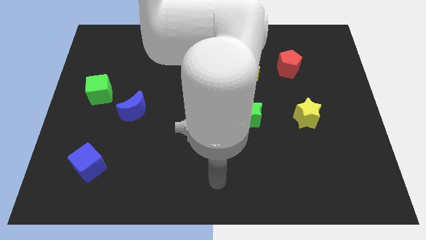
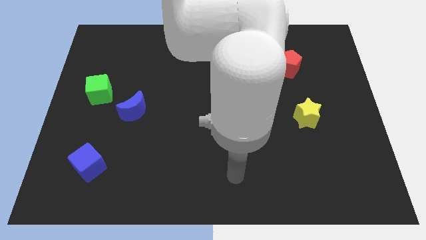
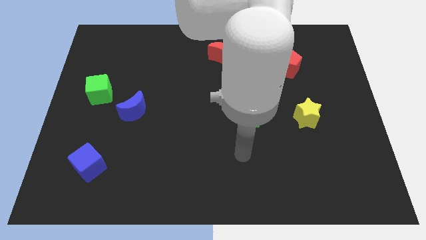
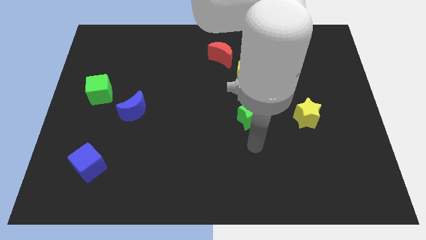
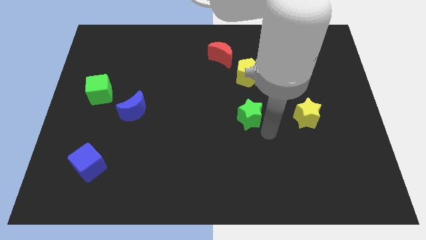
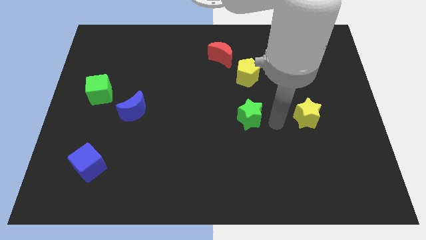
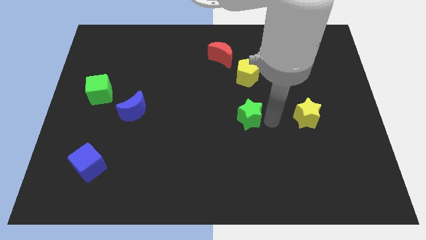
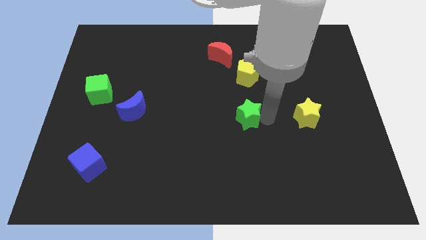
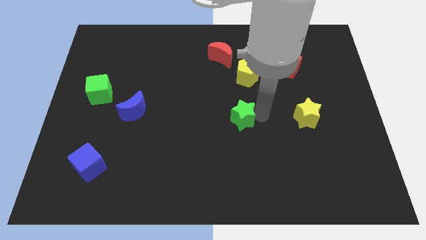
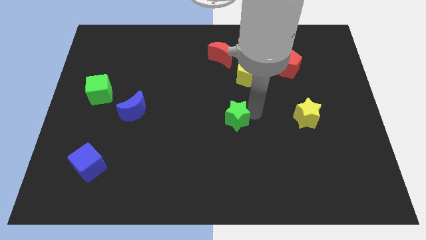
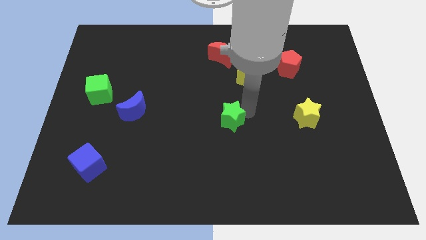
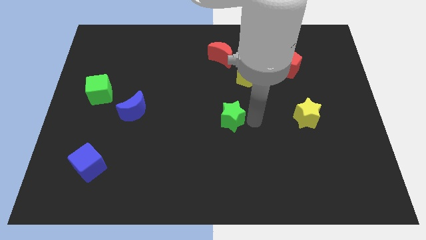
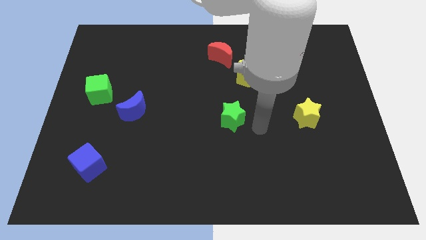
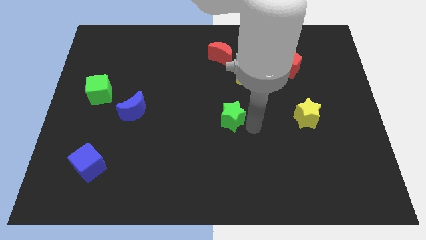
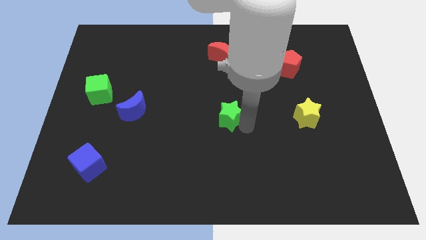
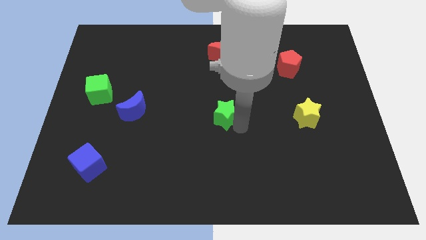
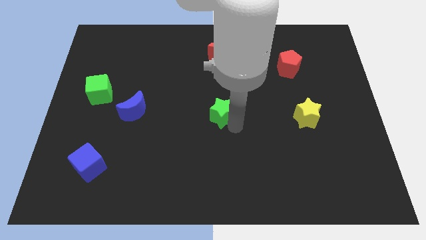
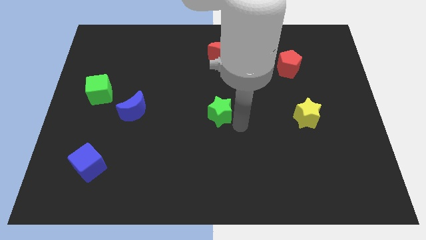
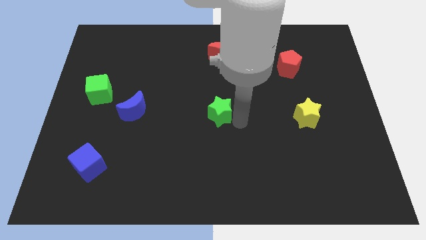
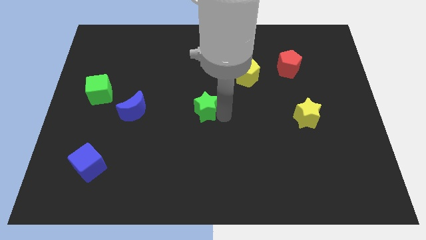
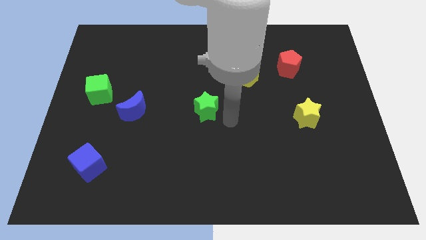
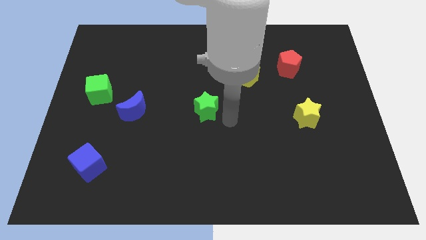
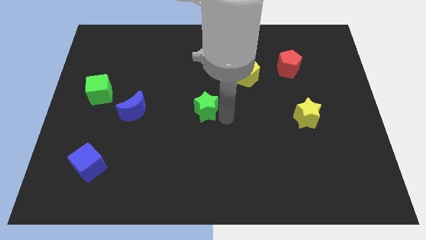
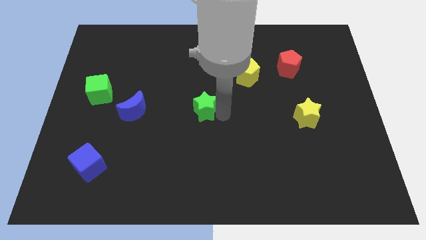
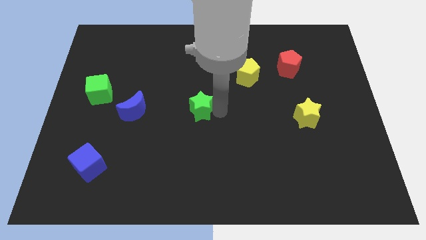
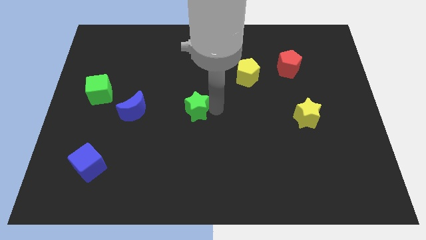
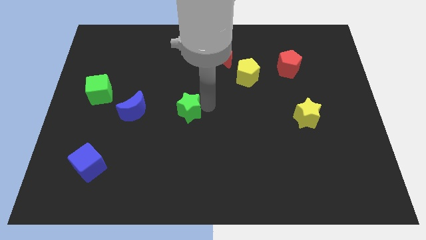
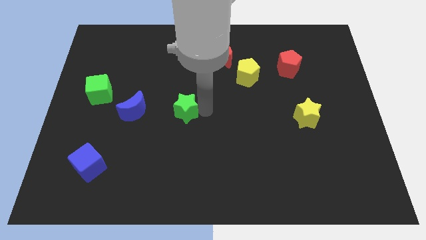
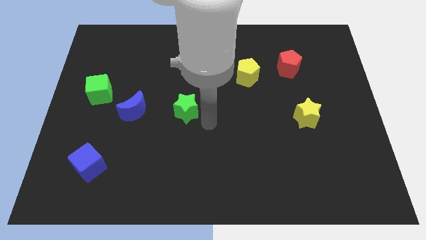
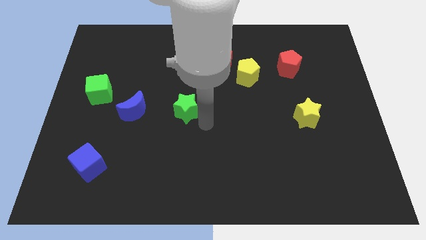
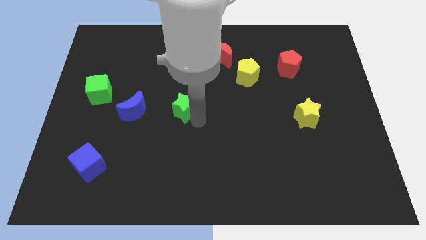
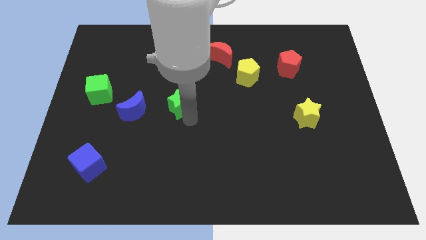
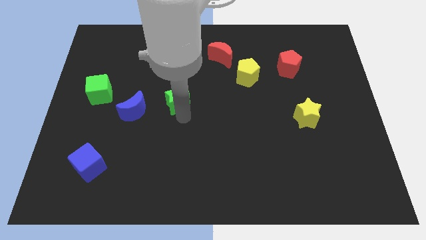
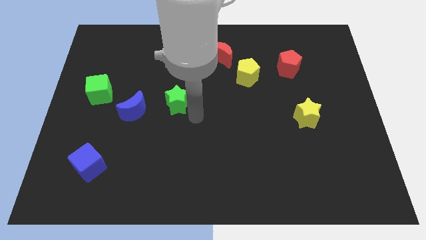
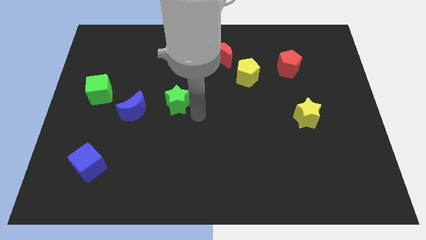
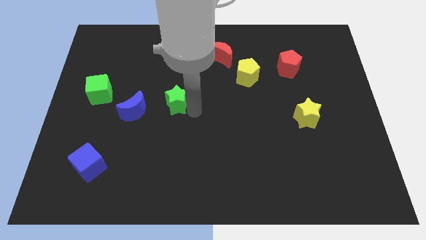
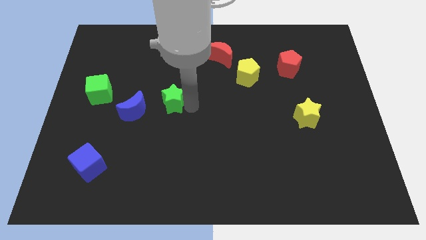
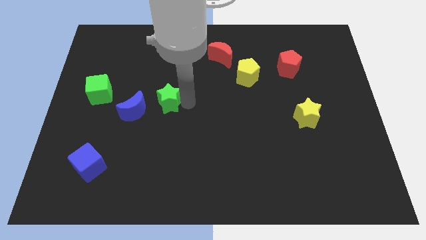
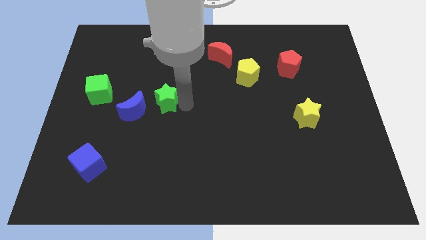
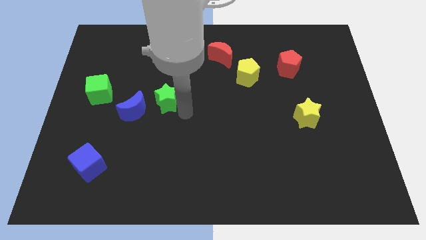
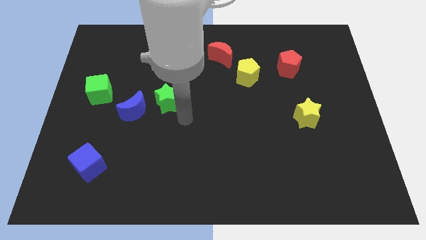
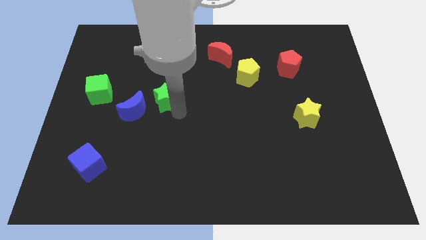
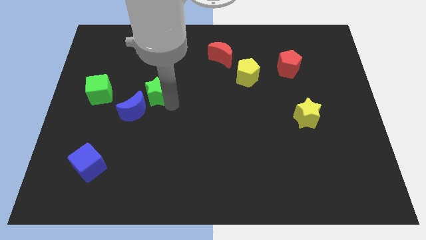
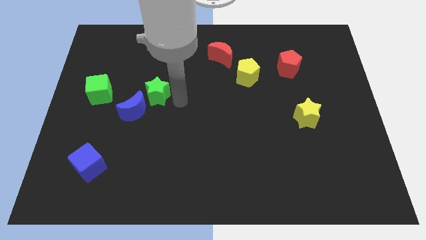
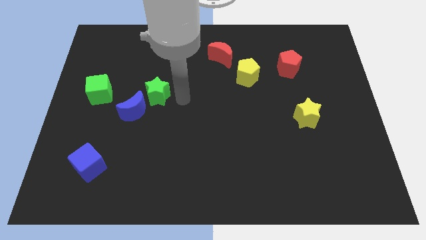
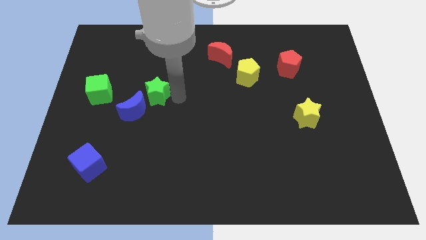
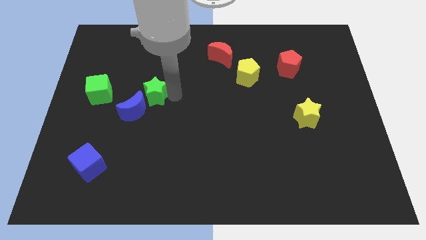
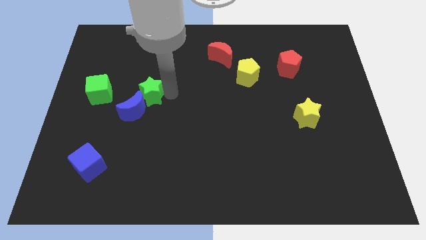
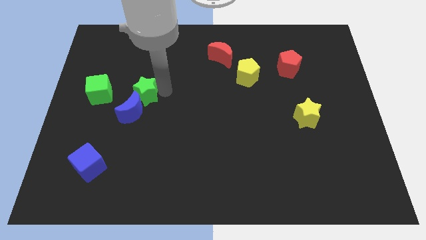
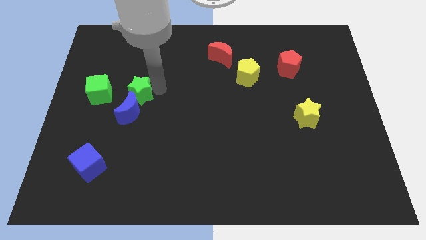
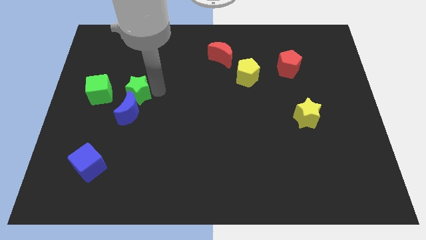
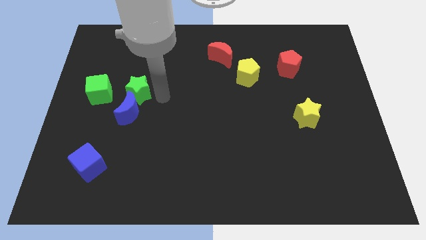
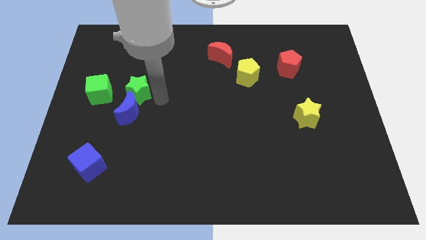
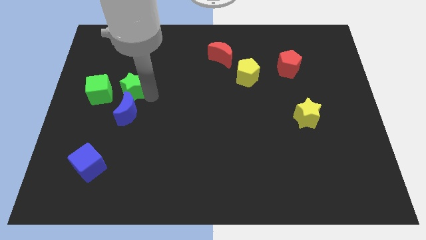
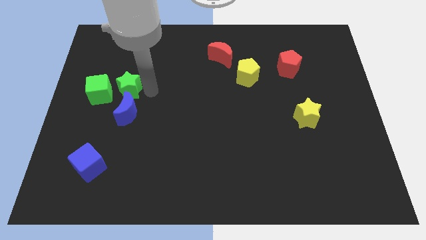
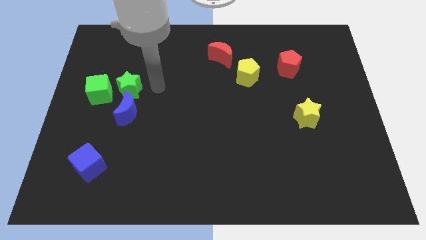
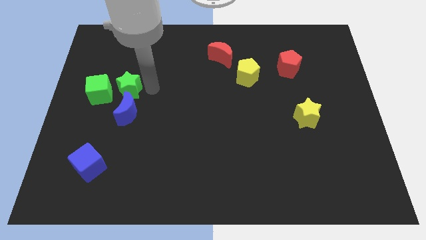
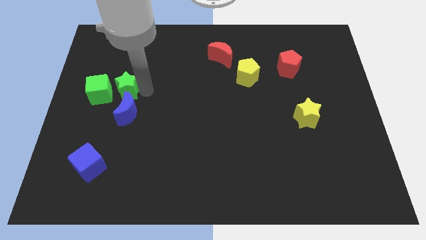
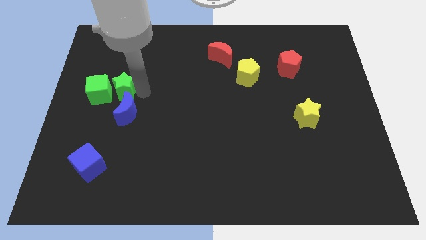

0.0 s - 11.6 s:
slide the green star next to the green cube

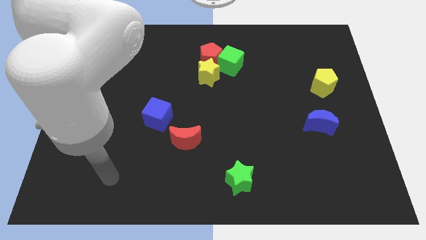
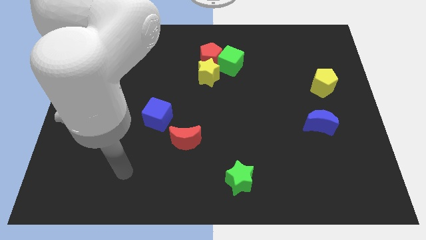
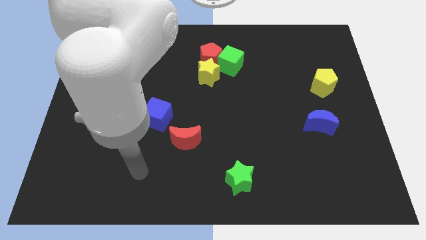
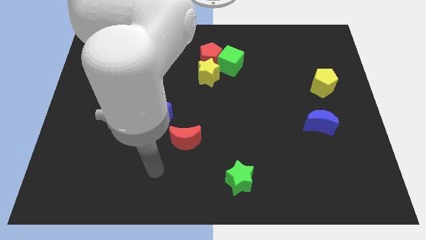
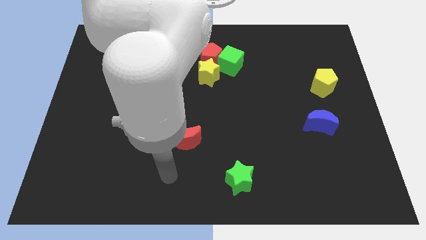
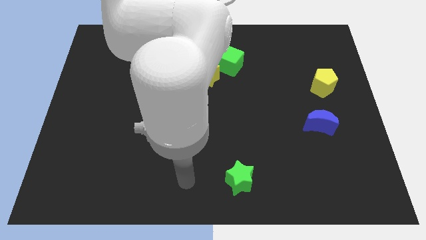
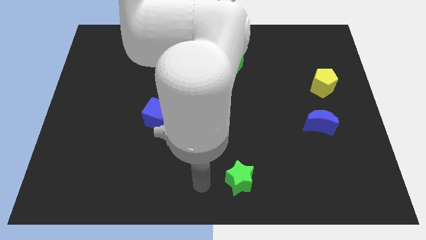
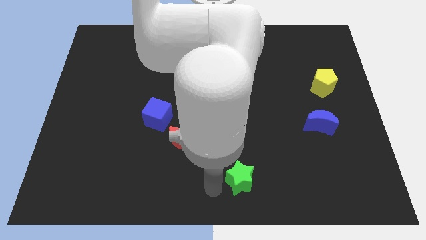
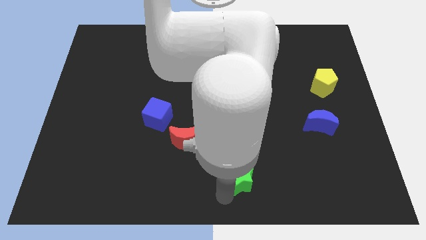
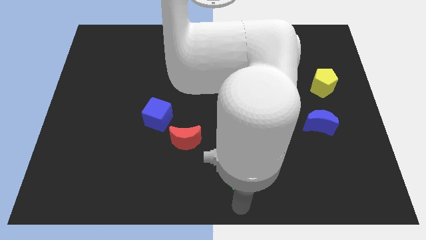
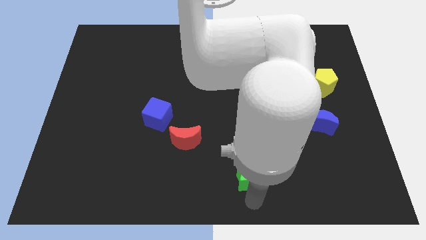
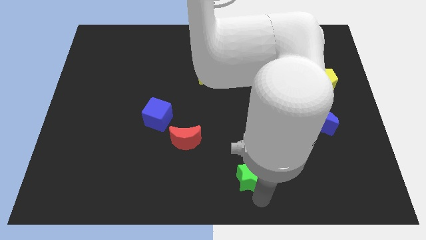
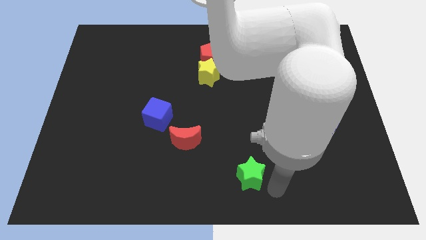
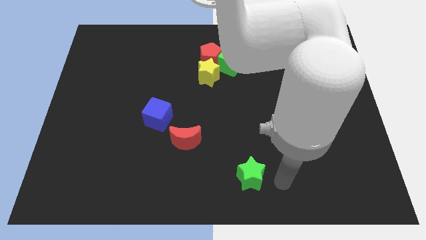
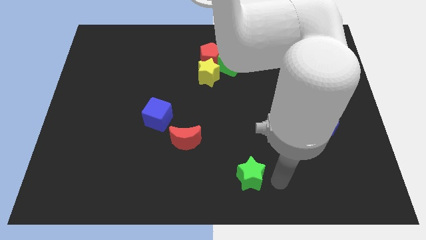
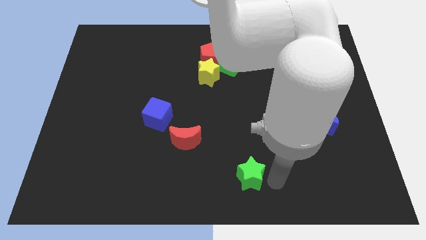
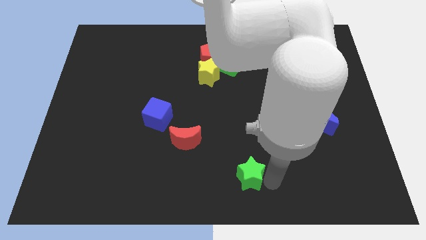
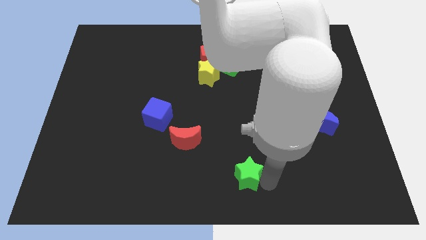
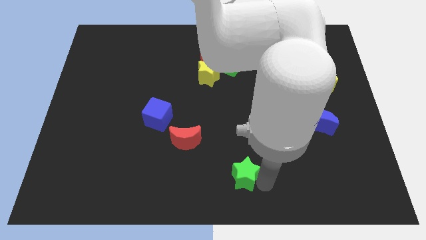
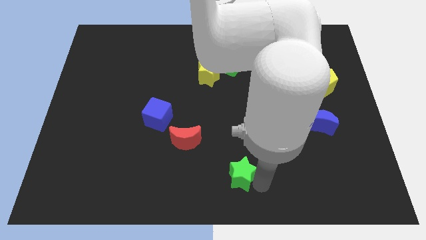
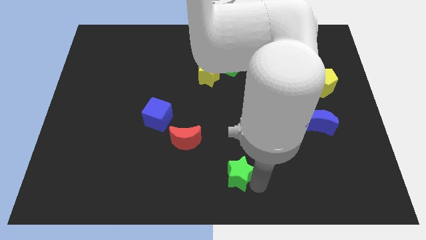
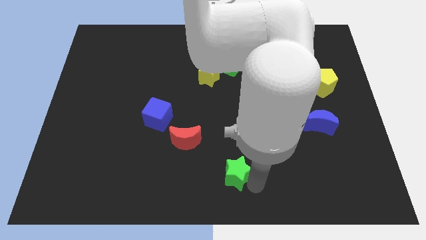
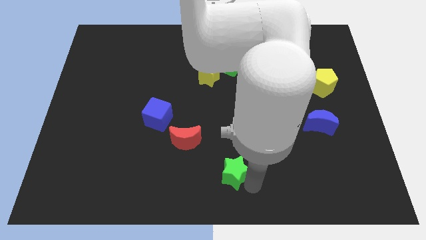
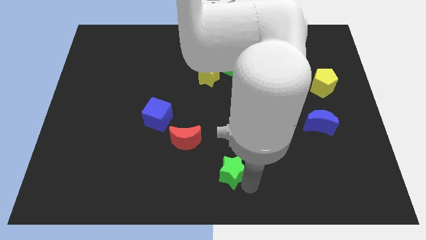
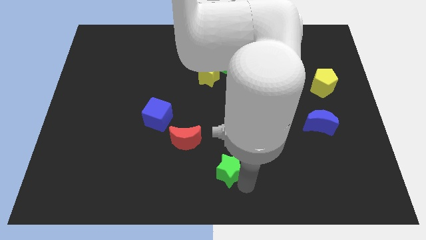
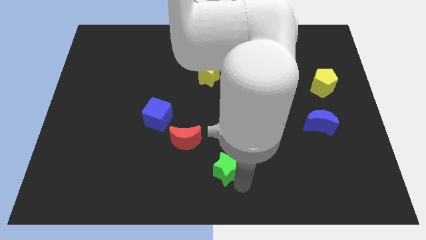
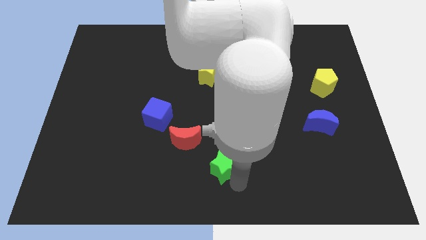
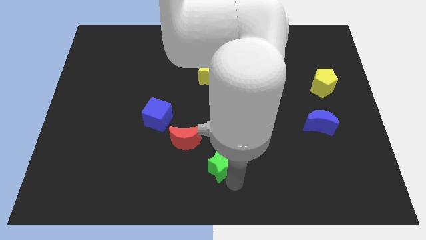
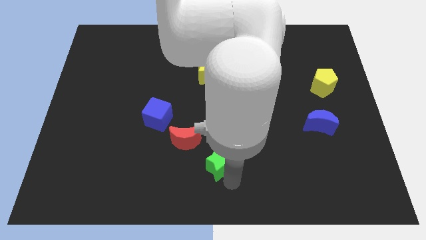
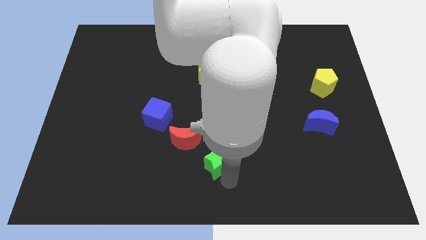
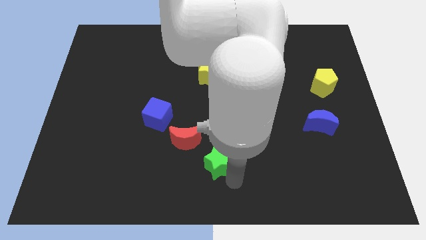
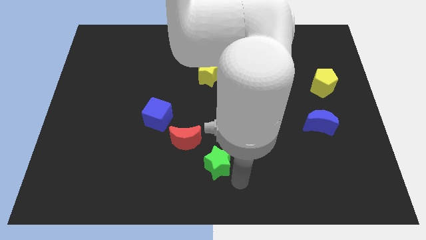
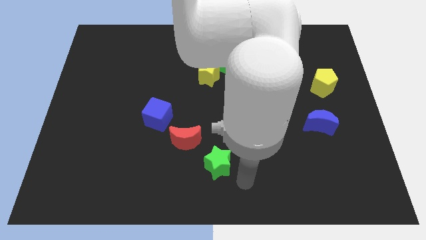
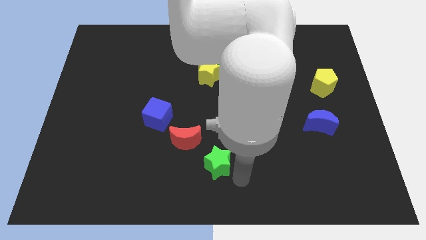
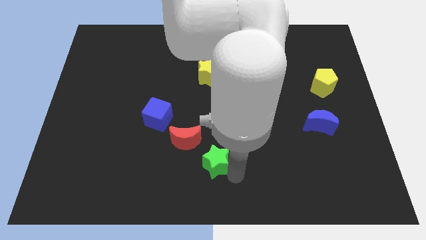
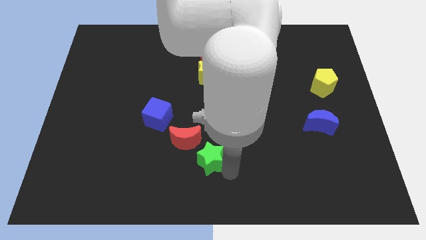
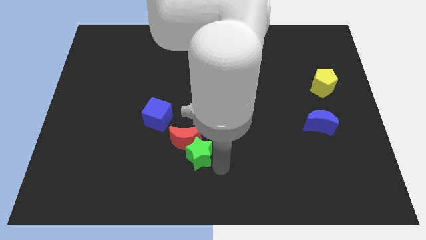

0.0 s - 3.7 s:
push the green star towards the red moon
